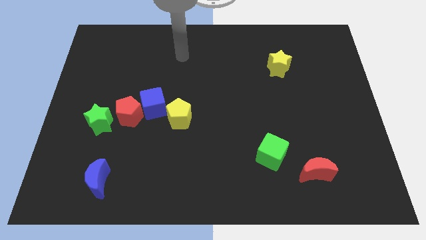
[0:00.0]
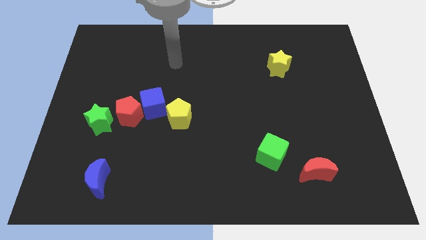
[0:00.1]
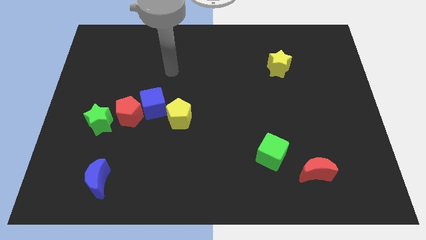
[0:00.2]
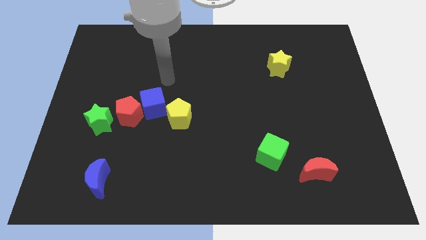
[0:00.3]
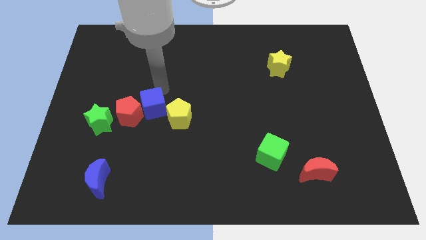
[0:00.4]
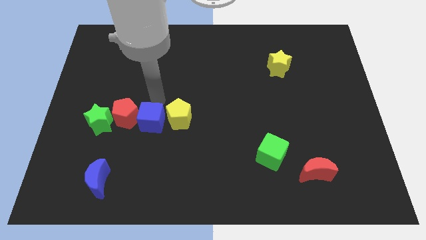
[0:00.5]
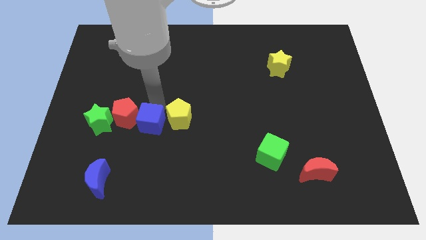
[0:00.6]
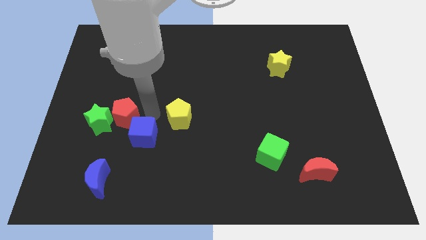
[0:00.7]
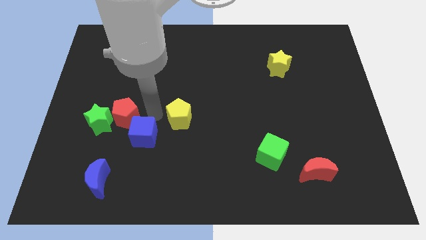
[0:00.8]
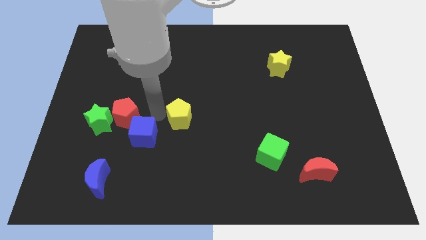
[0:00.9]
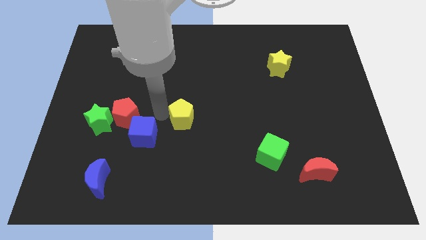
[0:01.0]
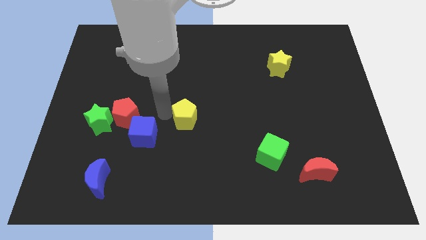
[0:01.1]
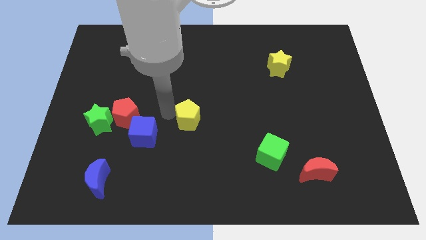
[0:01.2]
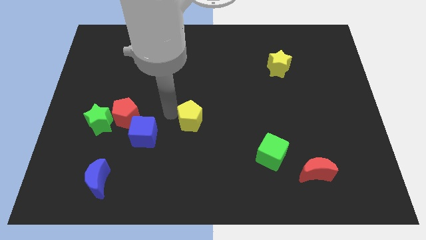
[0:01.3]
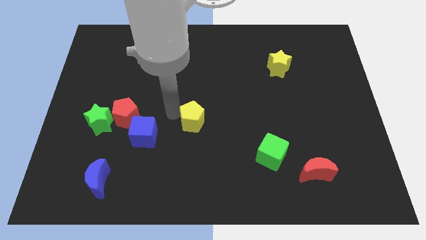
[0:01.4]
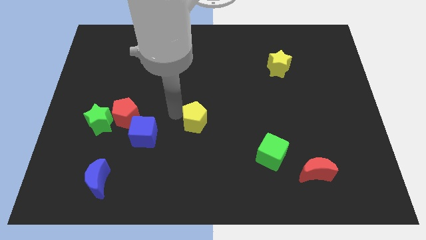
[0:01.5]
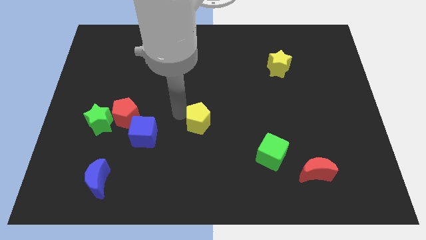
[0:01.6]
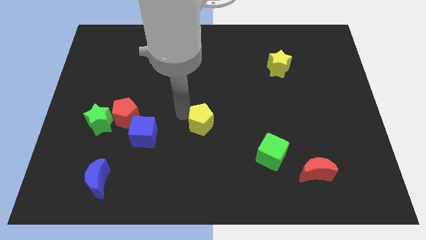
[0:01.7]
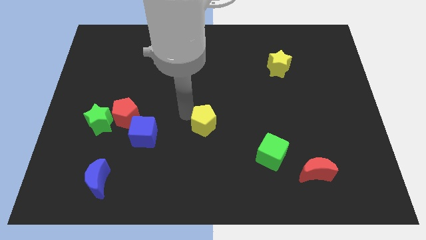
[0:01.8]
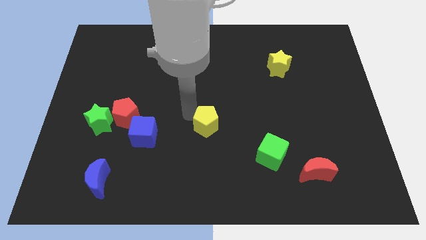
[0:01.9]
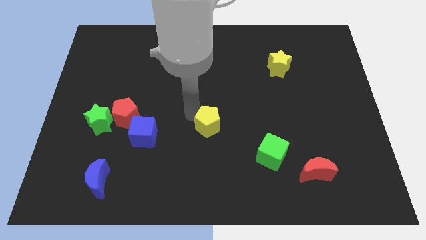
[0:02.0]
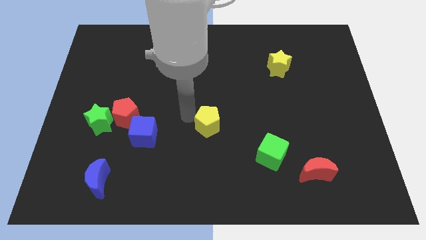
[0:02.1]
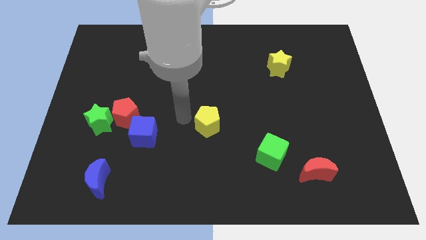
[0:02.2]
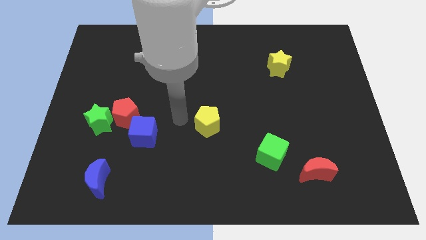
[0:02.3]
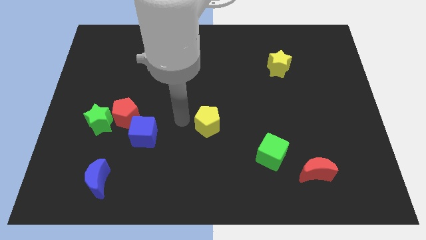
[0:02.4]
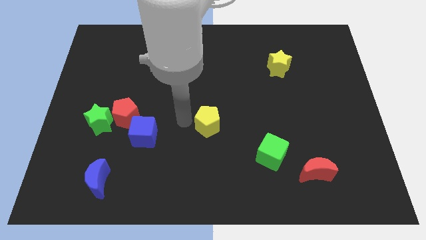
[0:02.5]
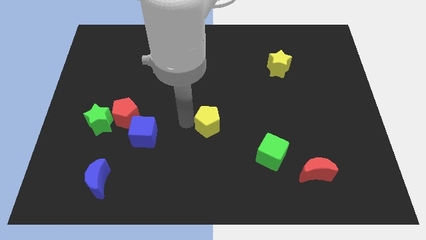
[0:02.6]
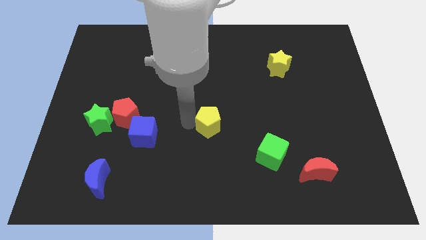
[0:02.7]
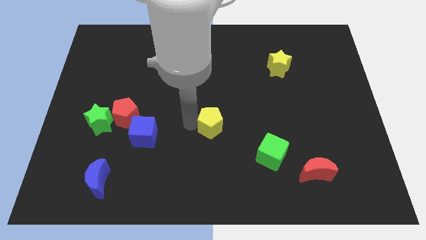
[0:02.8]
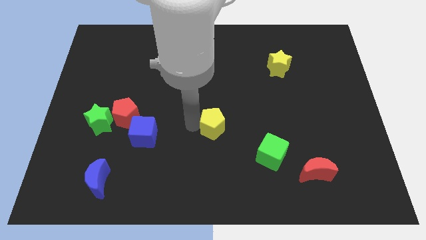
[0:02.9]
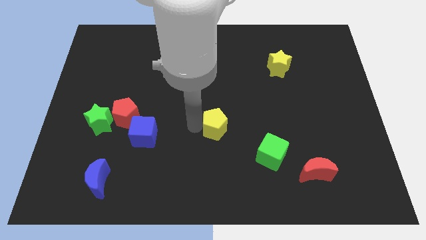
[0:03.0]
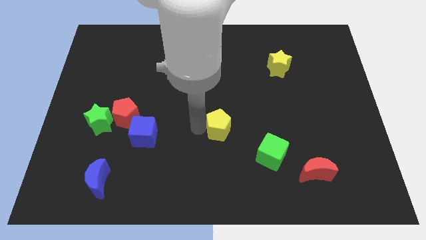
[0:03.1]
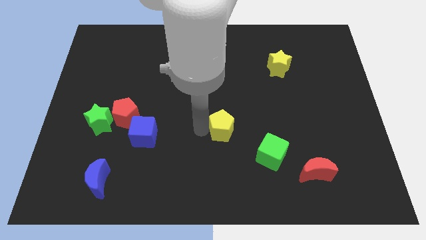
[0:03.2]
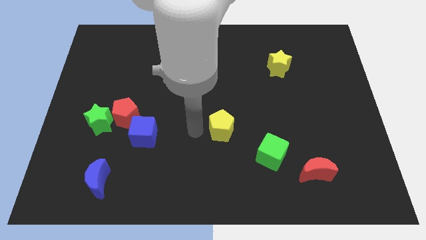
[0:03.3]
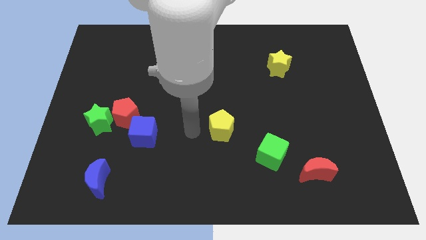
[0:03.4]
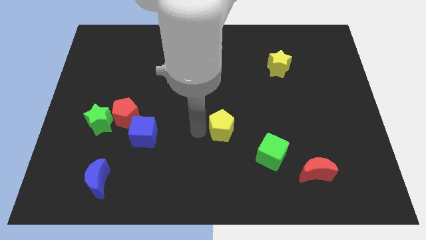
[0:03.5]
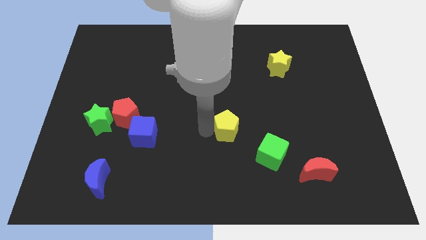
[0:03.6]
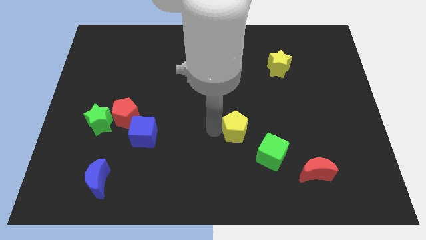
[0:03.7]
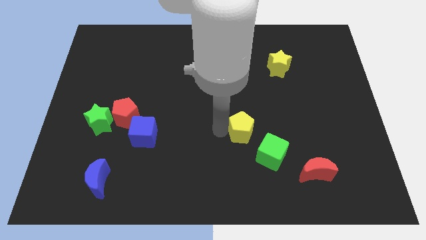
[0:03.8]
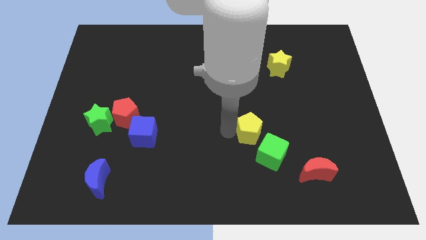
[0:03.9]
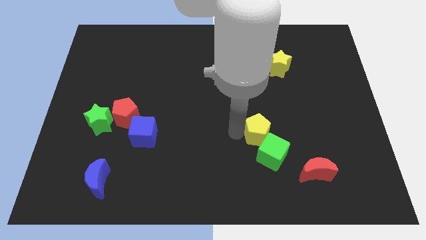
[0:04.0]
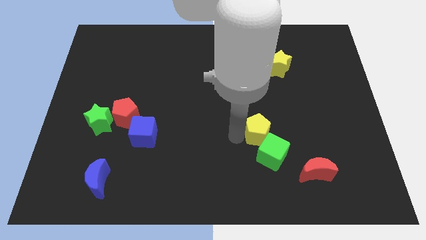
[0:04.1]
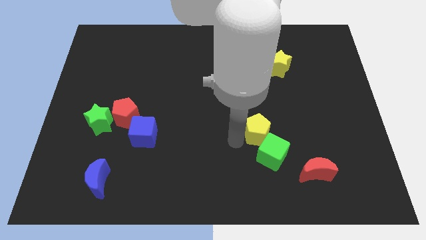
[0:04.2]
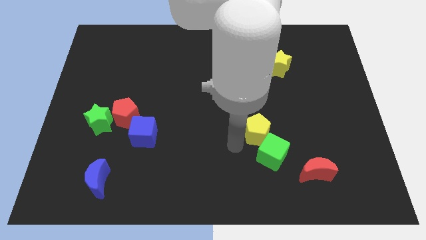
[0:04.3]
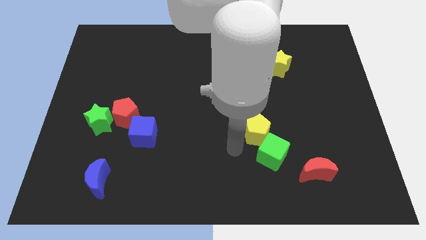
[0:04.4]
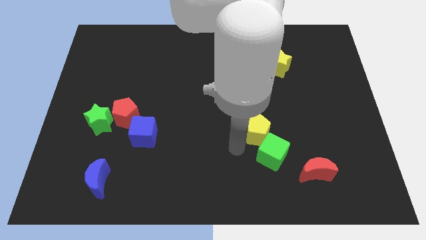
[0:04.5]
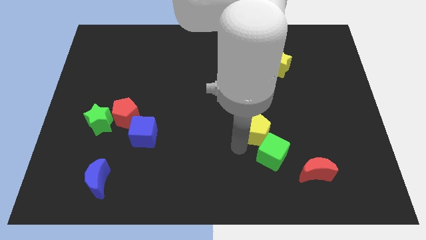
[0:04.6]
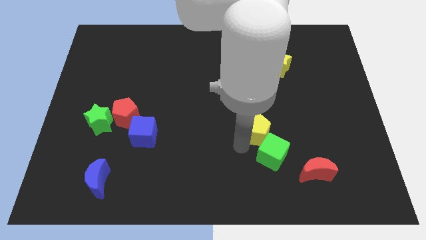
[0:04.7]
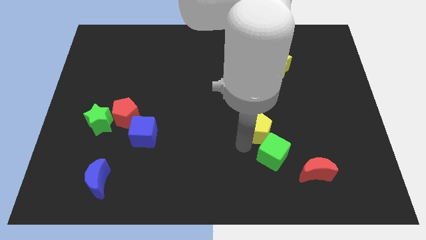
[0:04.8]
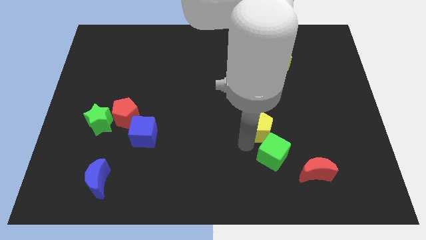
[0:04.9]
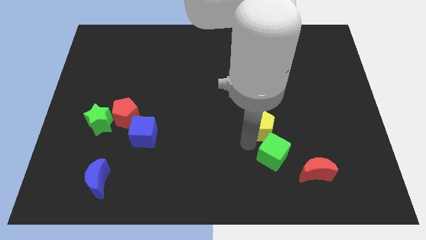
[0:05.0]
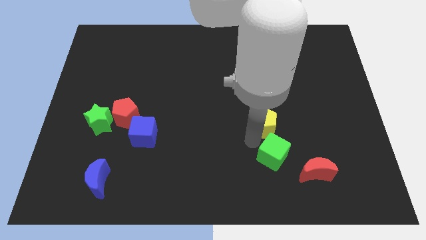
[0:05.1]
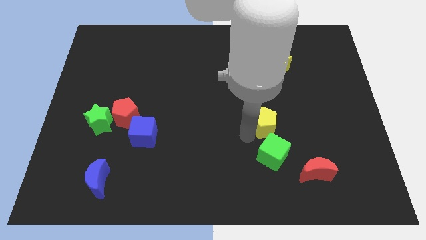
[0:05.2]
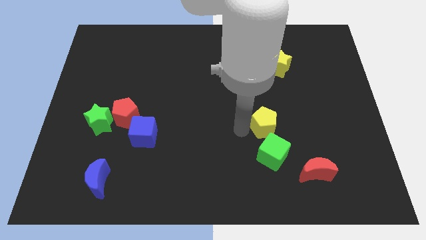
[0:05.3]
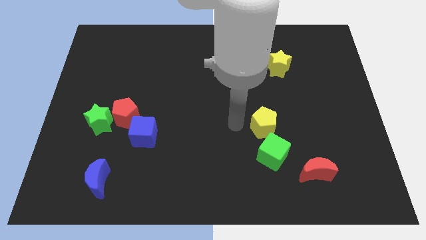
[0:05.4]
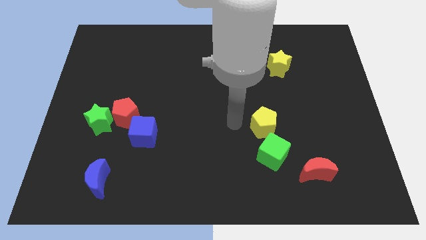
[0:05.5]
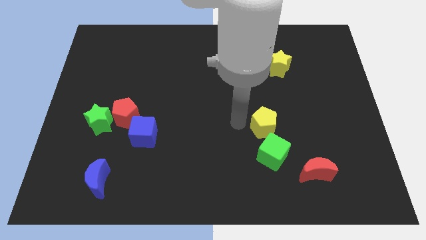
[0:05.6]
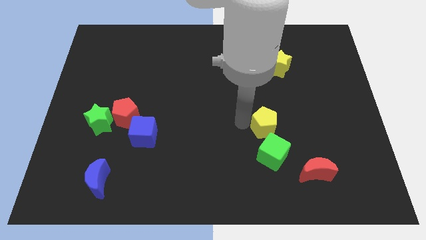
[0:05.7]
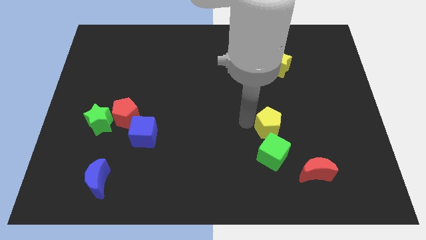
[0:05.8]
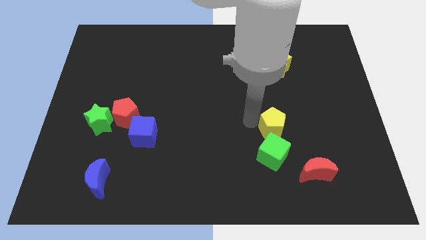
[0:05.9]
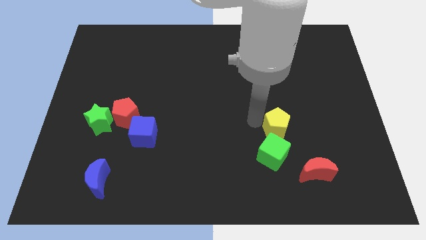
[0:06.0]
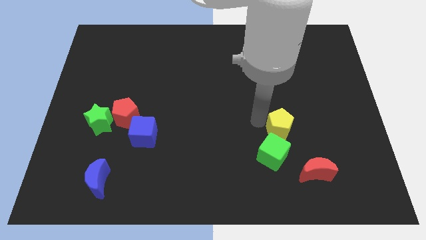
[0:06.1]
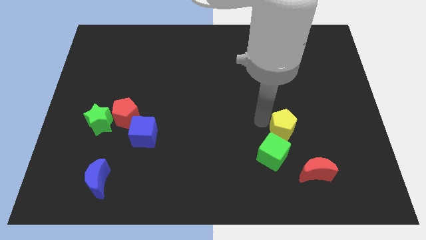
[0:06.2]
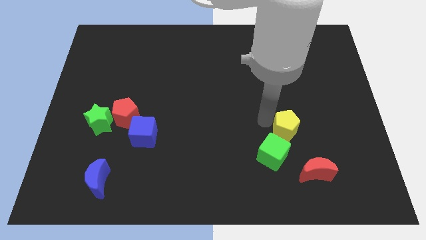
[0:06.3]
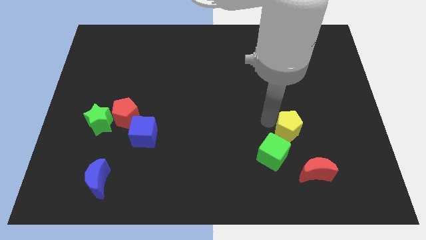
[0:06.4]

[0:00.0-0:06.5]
put the yellow pentagon to the top side of the red moon
